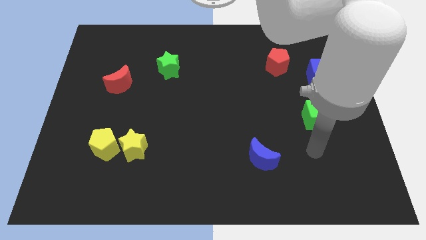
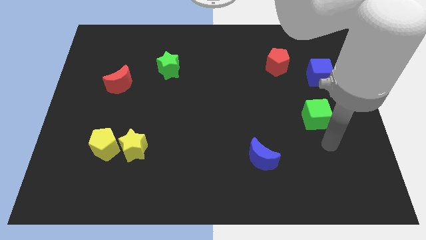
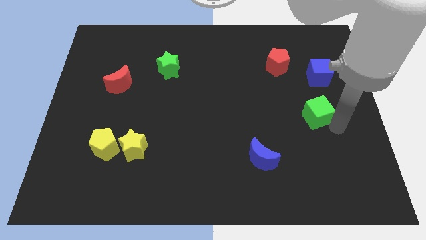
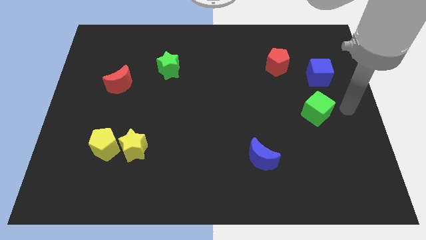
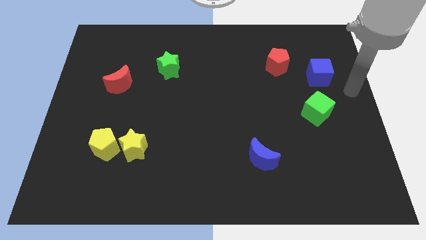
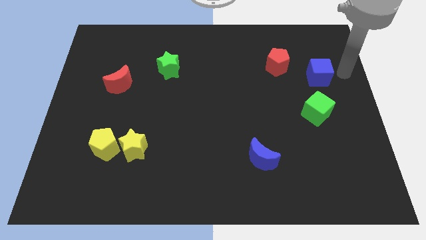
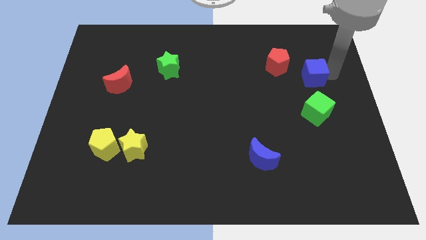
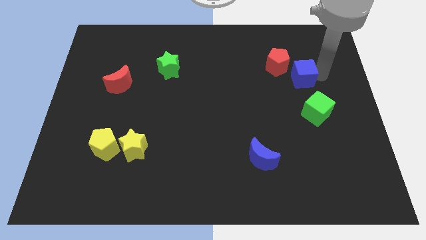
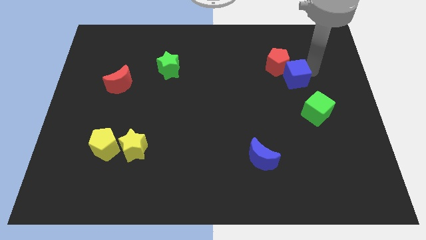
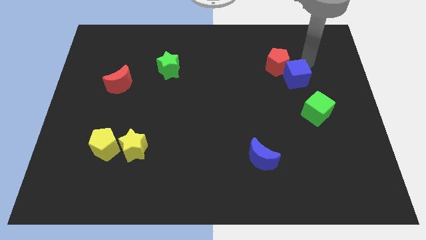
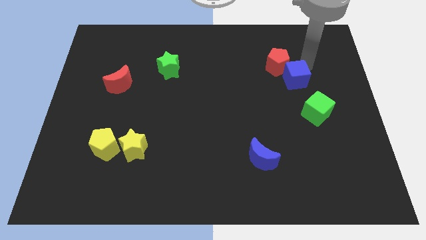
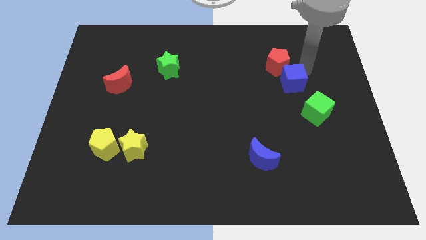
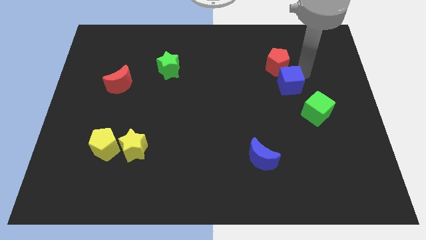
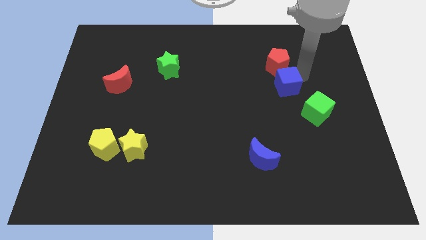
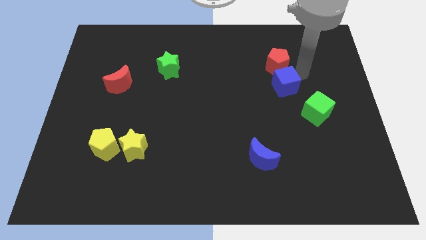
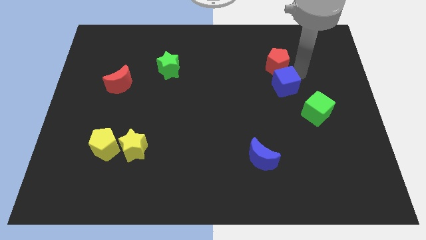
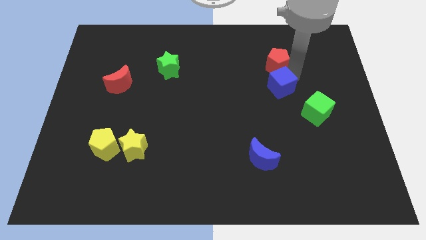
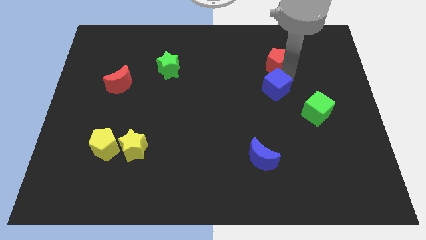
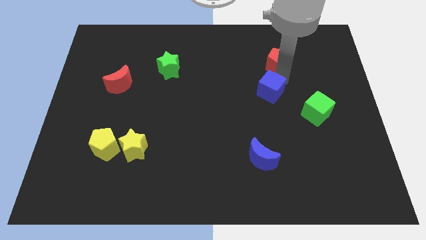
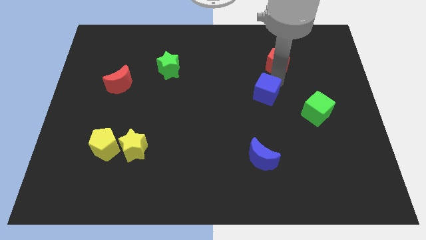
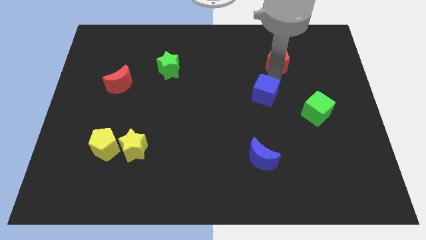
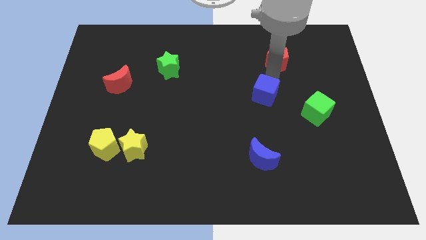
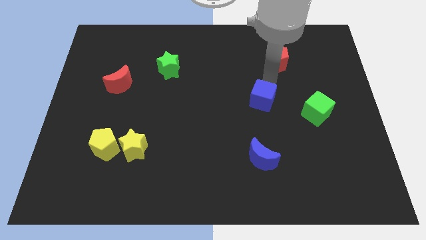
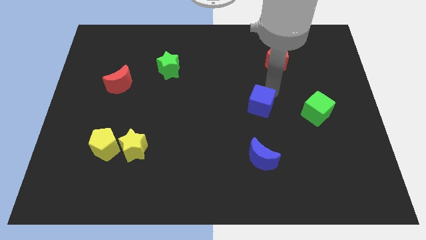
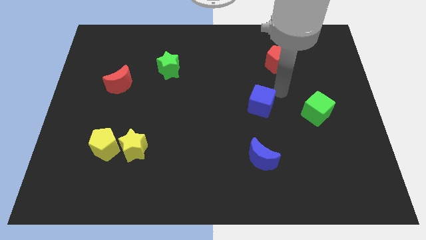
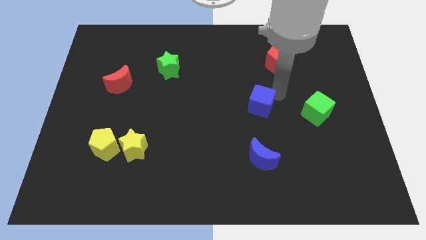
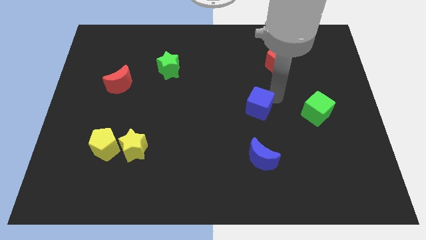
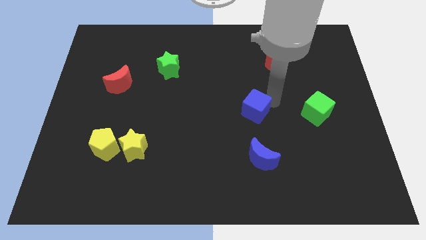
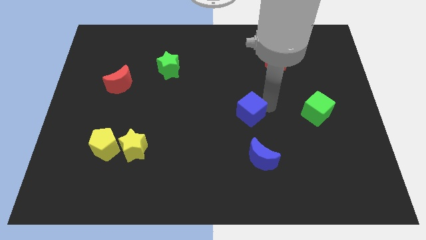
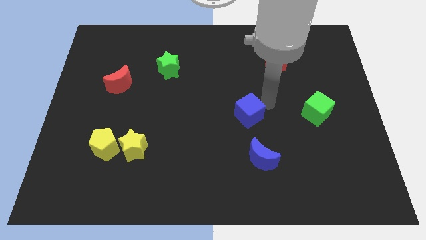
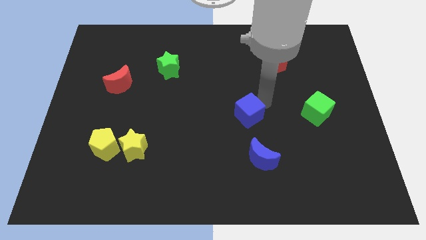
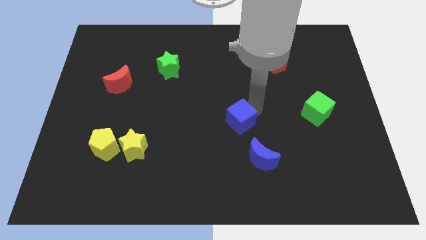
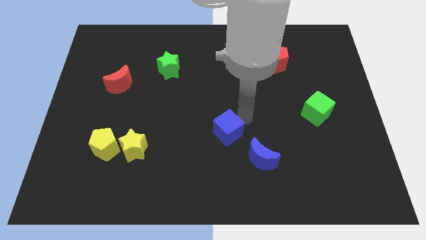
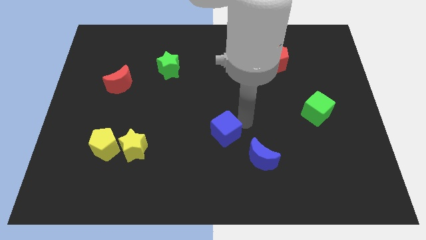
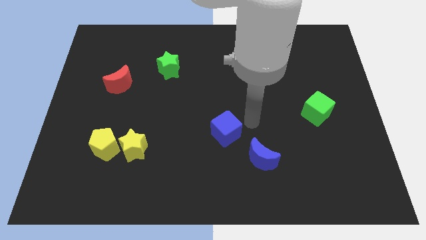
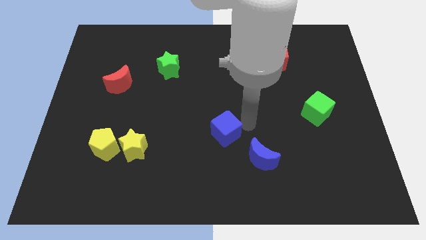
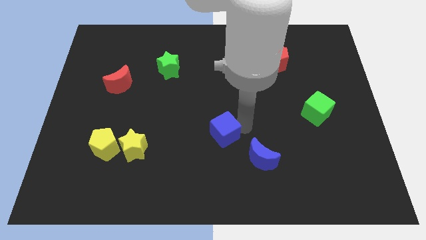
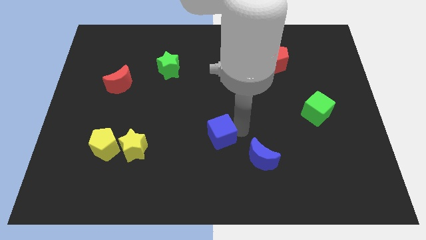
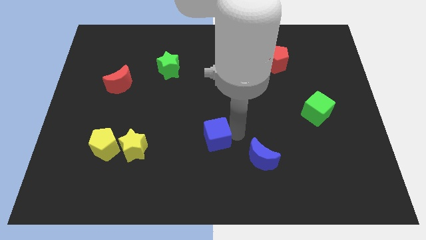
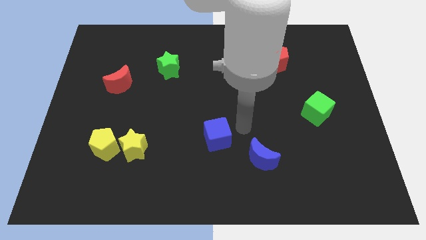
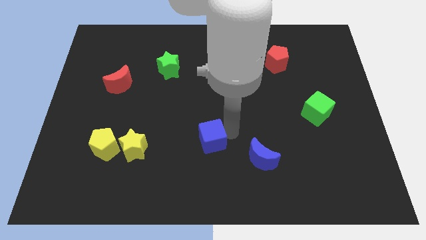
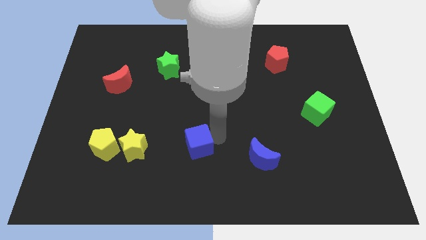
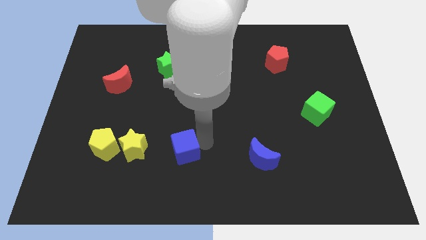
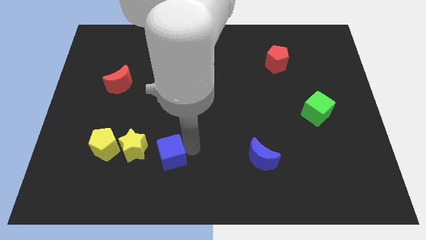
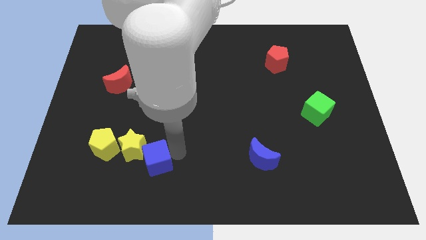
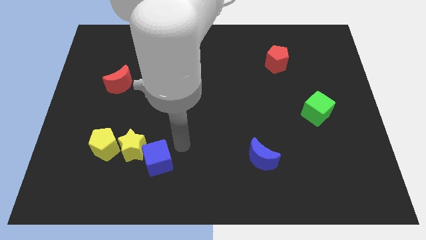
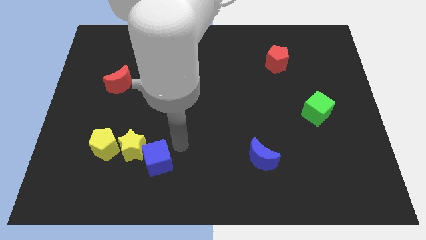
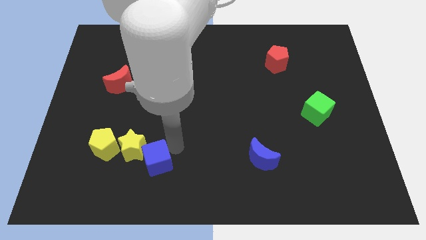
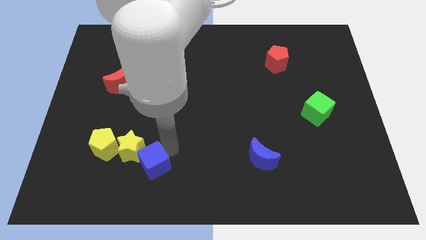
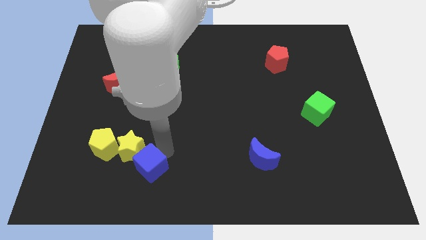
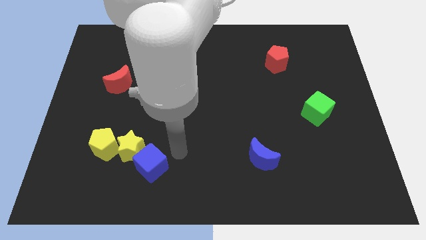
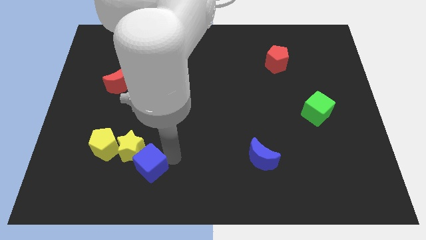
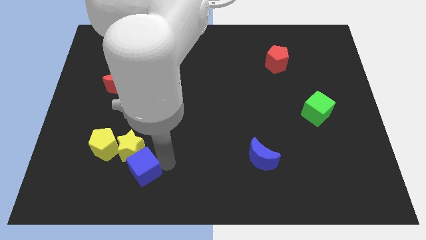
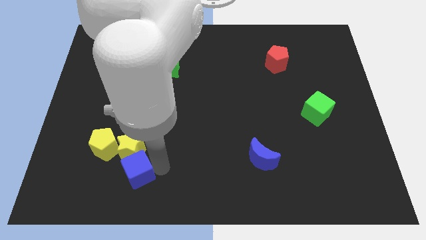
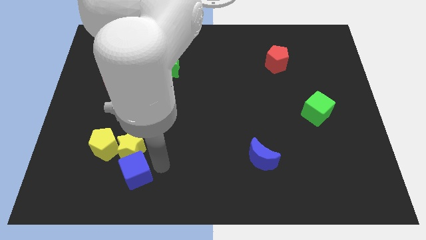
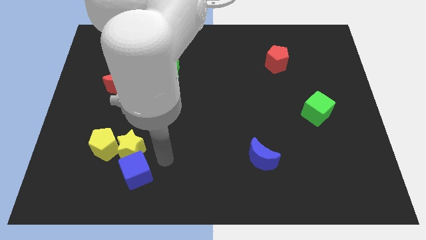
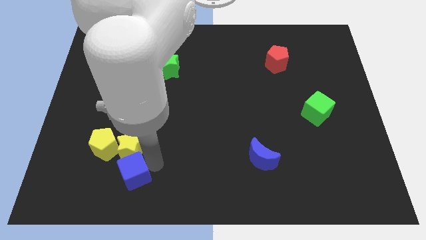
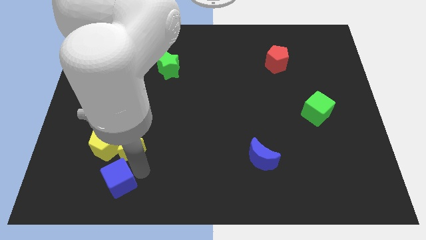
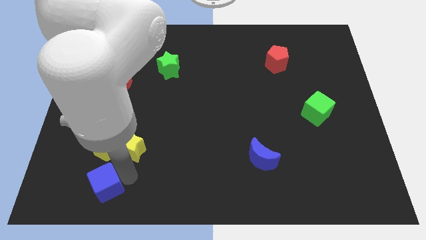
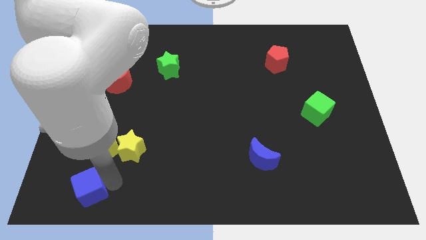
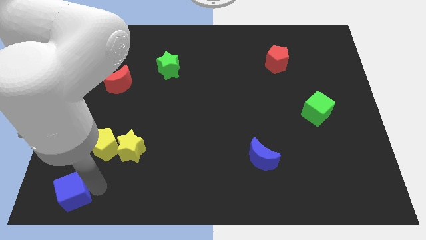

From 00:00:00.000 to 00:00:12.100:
move the blue cube to the bottom left corner

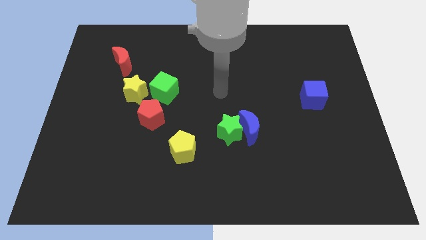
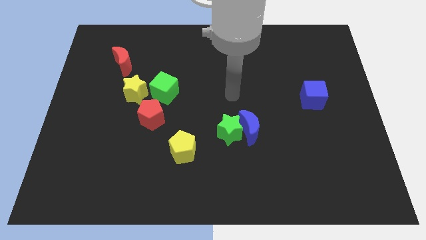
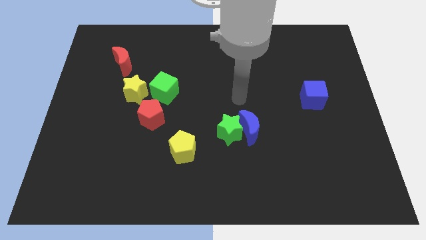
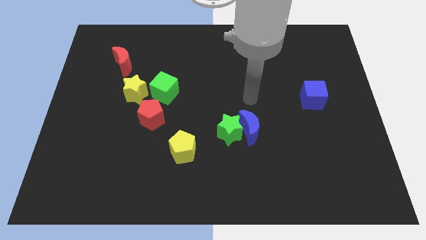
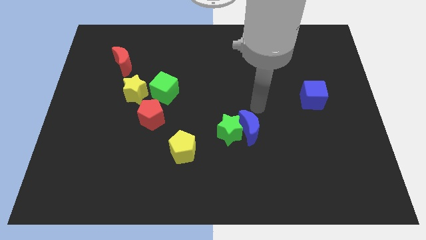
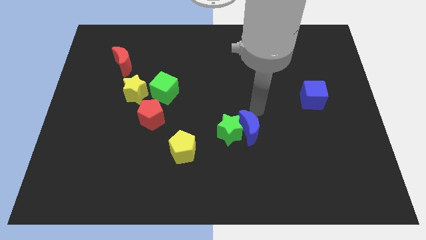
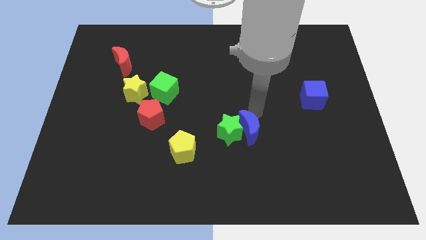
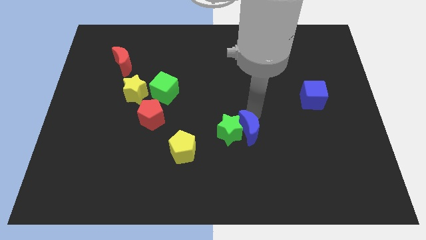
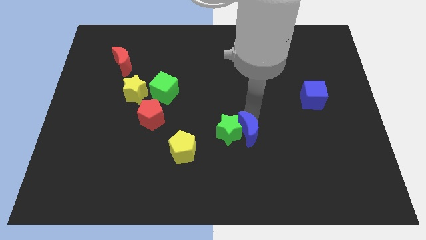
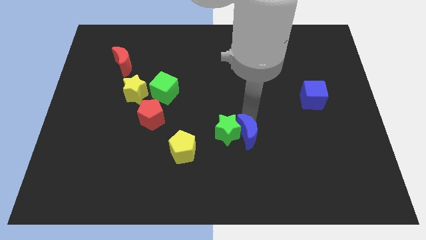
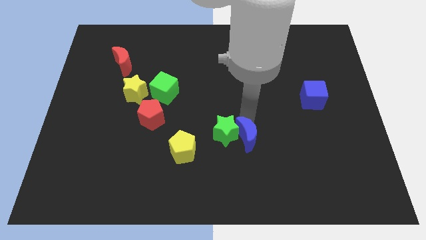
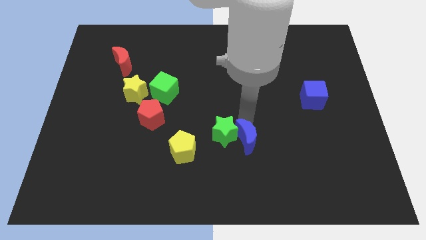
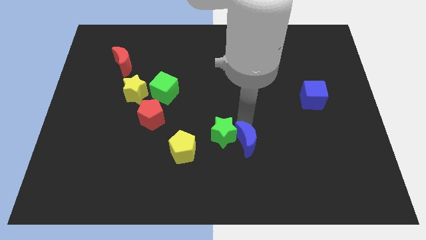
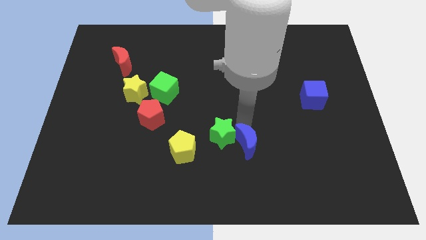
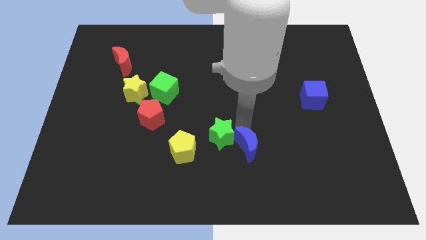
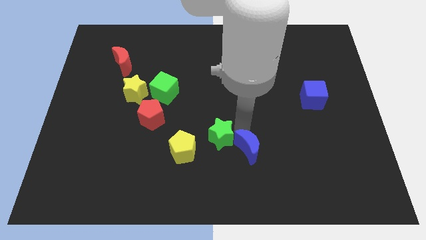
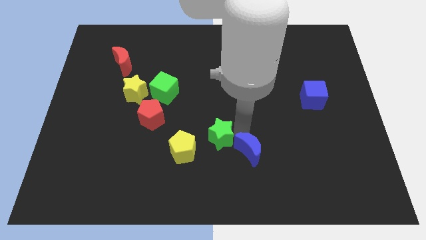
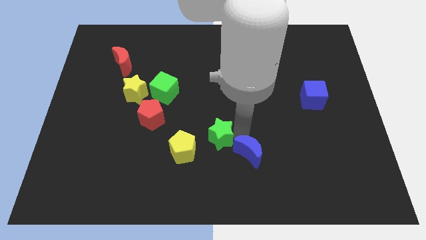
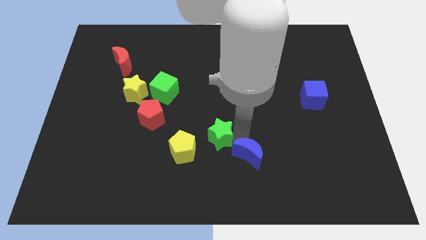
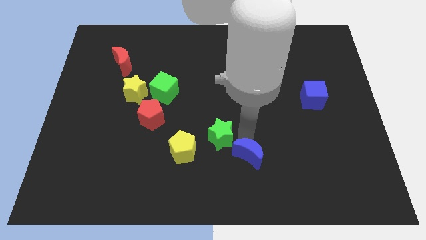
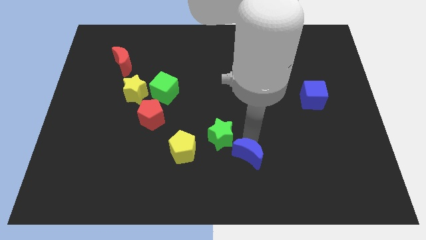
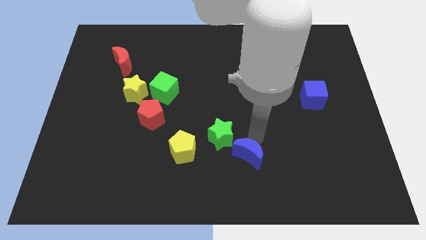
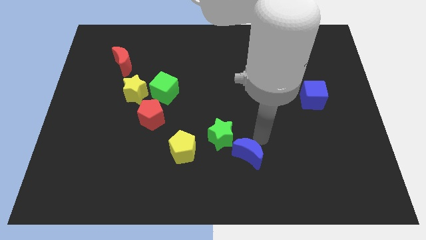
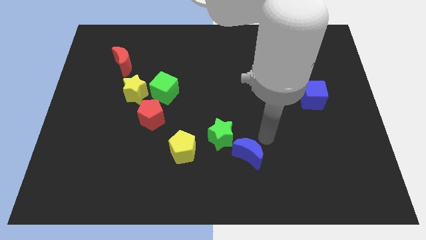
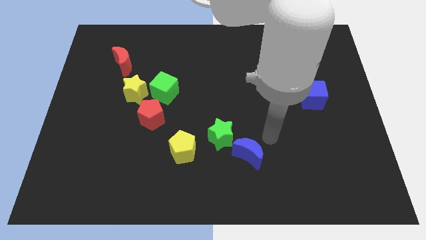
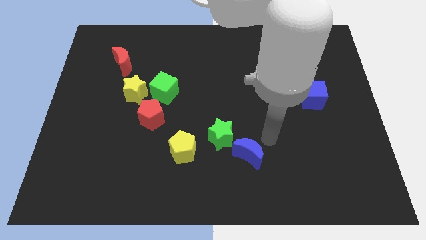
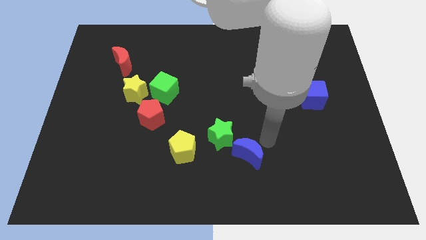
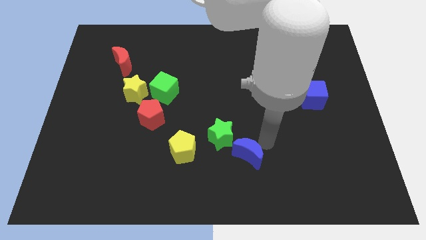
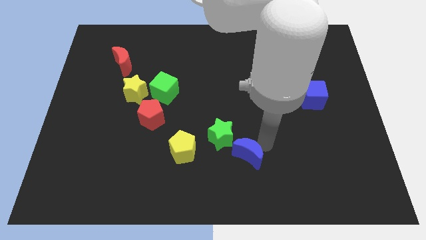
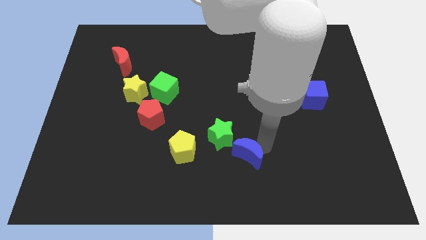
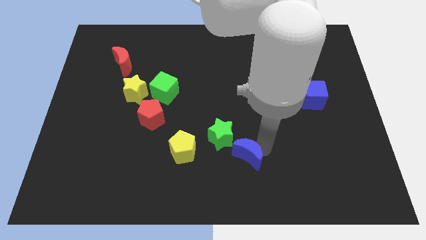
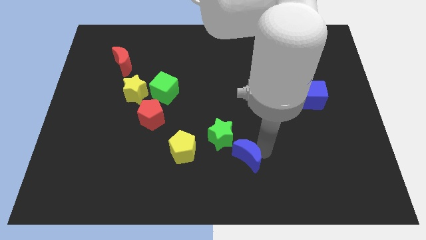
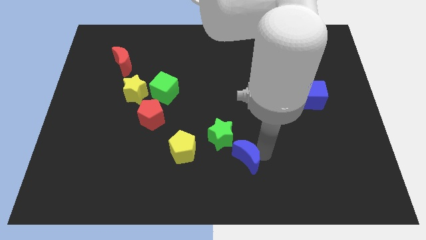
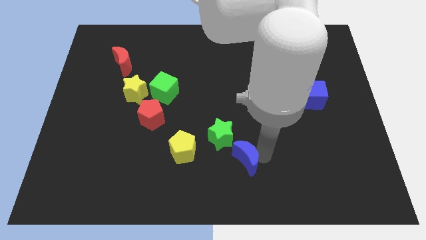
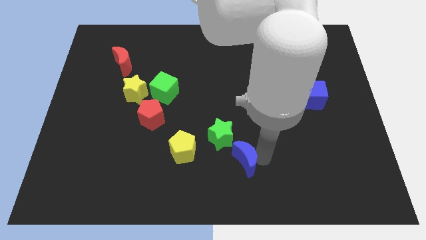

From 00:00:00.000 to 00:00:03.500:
move the blue moon to the bottom
